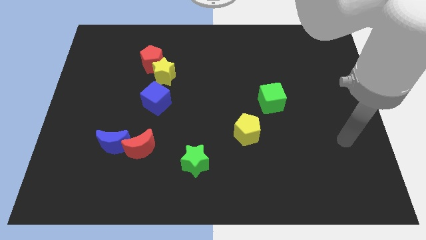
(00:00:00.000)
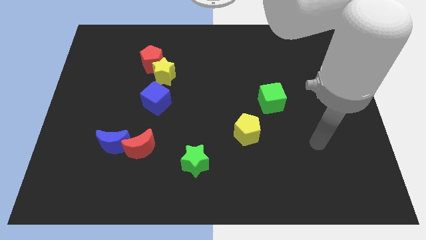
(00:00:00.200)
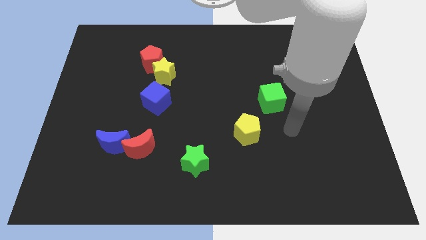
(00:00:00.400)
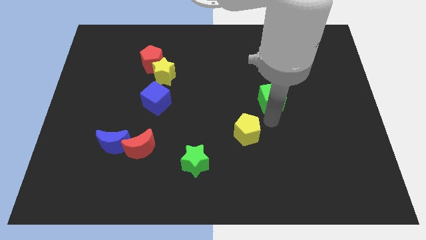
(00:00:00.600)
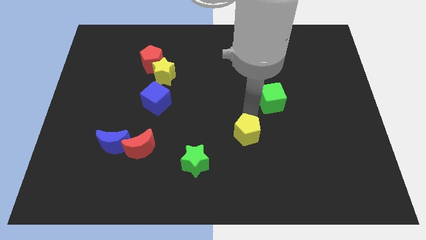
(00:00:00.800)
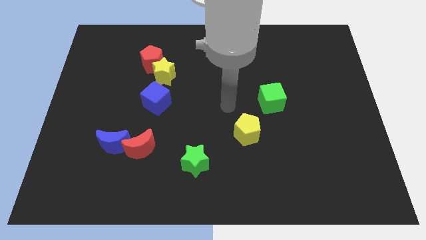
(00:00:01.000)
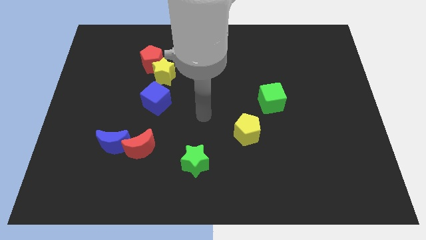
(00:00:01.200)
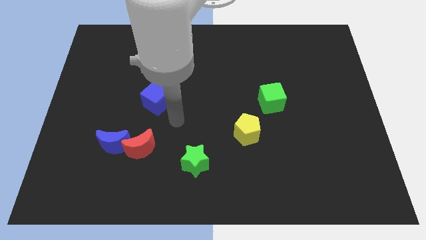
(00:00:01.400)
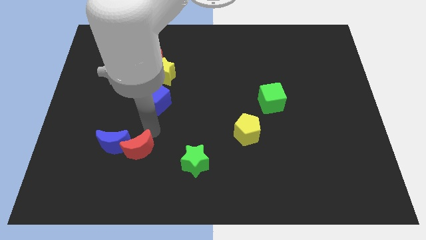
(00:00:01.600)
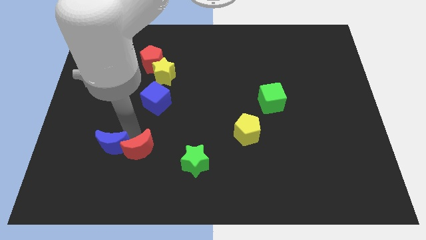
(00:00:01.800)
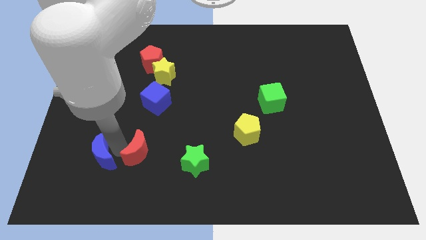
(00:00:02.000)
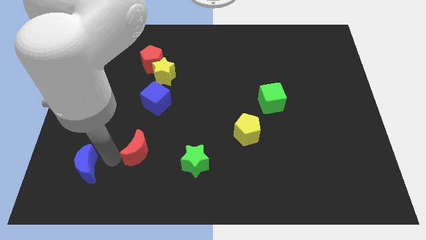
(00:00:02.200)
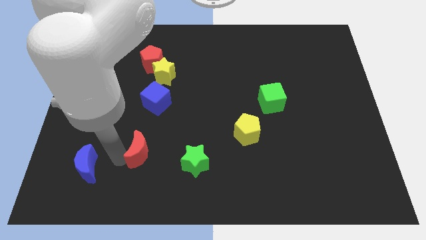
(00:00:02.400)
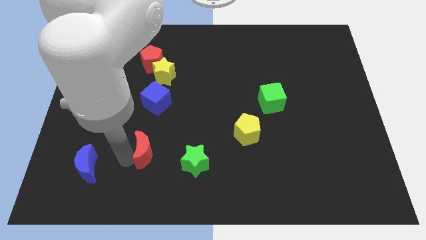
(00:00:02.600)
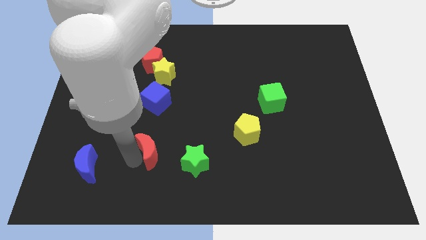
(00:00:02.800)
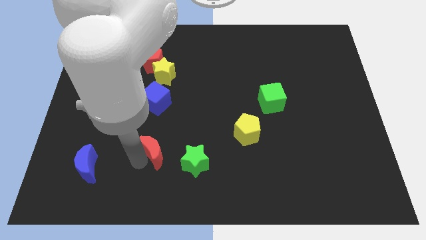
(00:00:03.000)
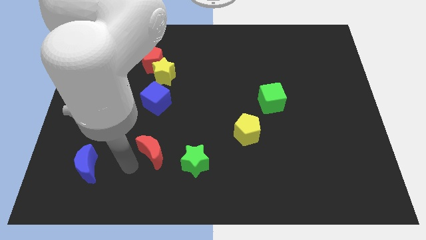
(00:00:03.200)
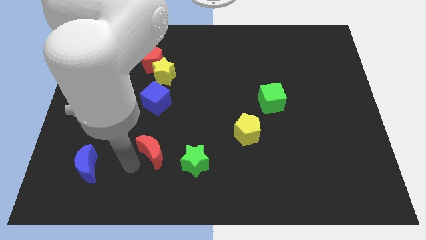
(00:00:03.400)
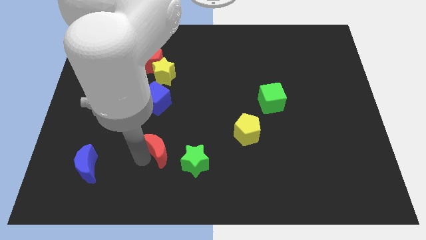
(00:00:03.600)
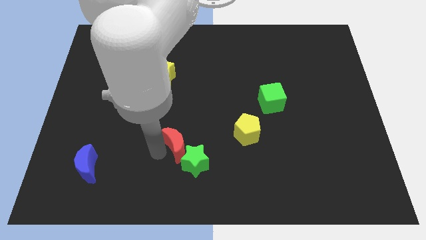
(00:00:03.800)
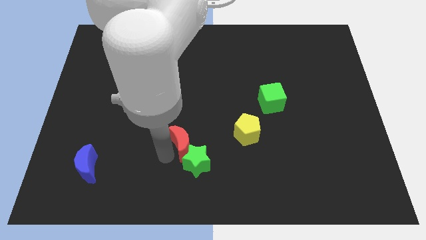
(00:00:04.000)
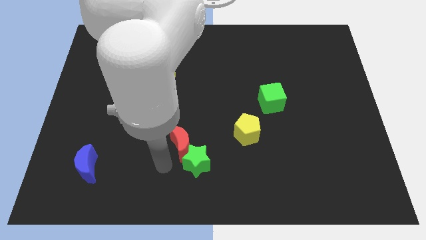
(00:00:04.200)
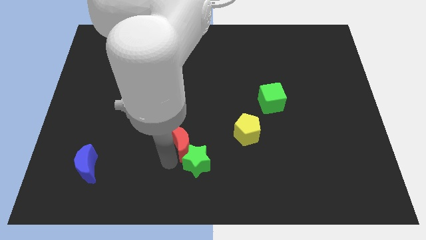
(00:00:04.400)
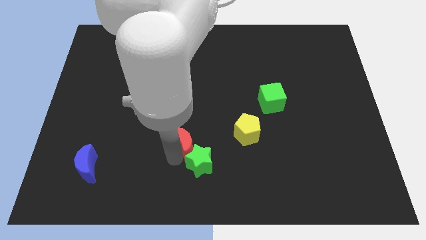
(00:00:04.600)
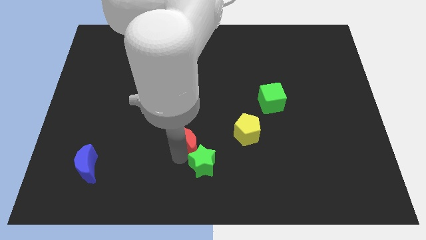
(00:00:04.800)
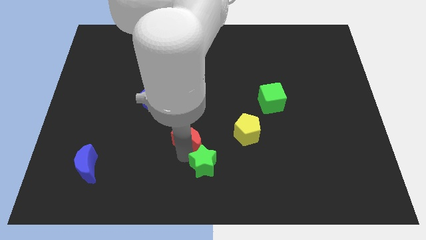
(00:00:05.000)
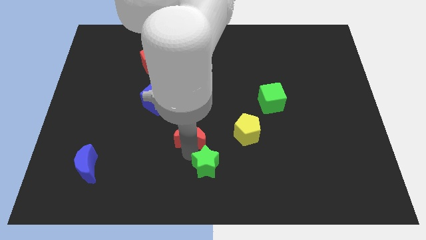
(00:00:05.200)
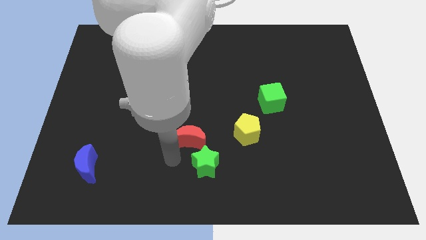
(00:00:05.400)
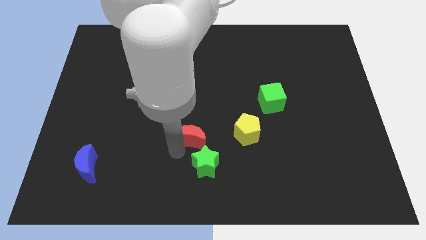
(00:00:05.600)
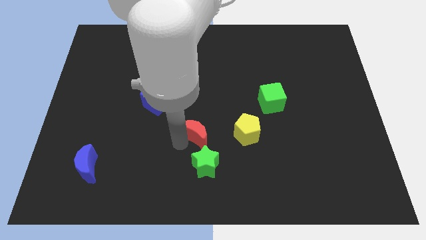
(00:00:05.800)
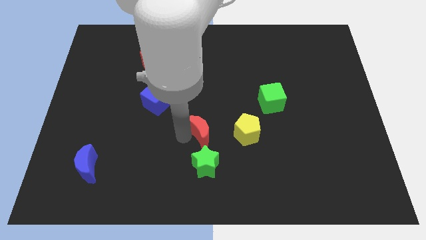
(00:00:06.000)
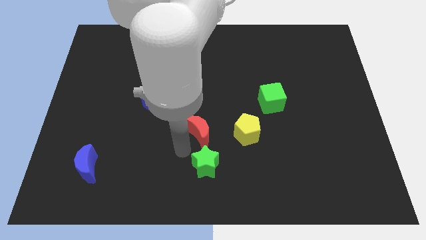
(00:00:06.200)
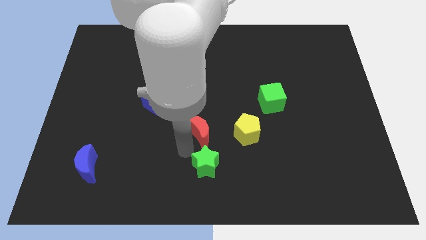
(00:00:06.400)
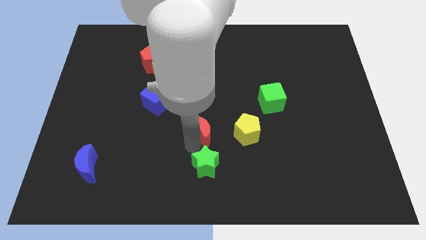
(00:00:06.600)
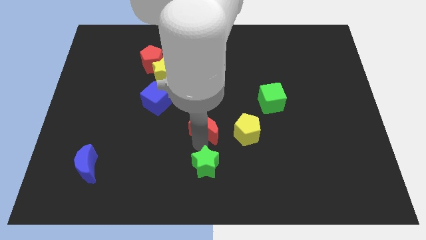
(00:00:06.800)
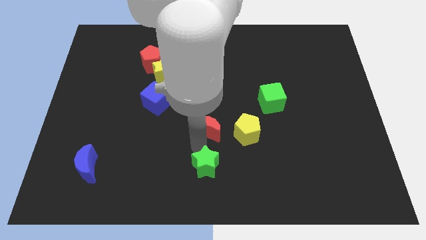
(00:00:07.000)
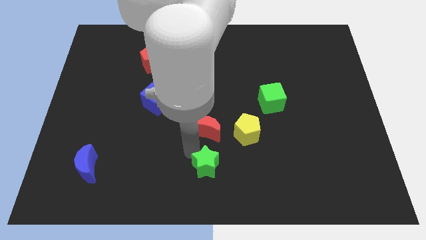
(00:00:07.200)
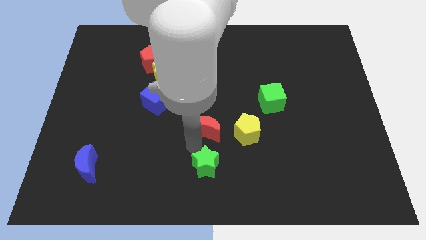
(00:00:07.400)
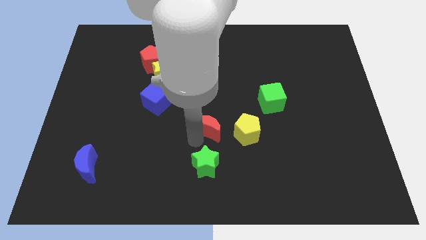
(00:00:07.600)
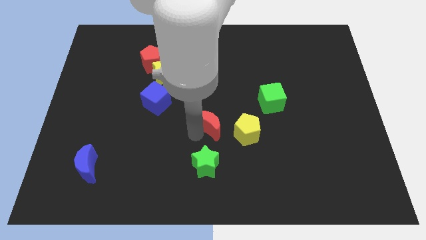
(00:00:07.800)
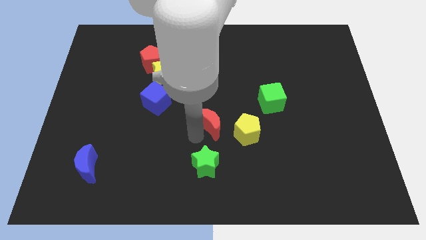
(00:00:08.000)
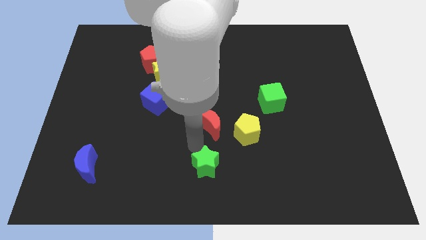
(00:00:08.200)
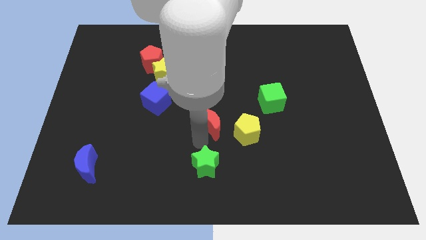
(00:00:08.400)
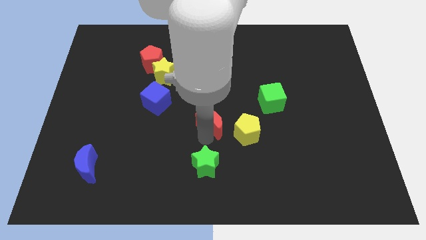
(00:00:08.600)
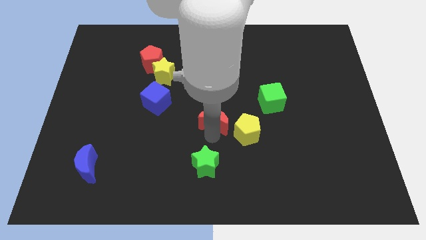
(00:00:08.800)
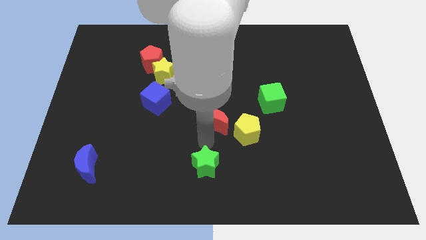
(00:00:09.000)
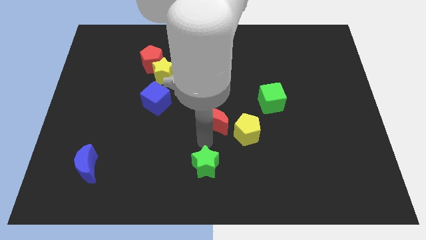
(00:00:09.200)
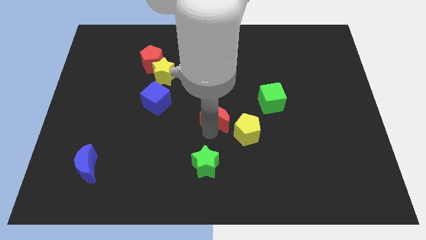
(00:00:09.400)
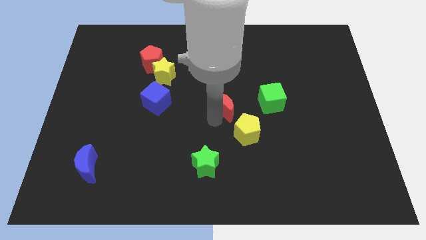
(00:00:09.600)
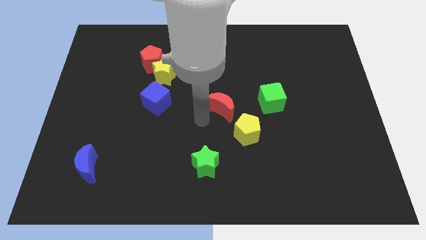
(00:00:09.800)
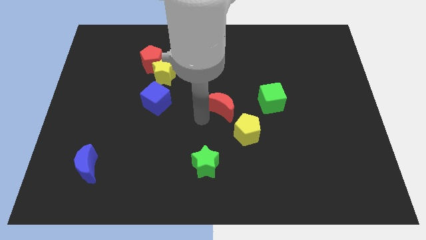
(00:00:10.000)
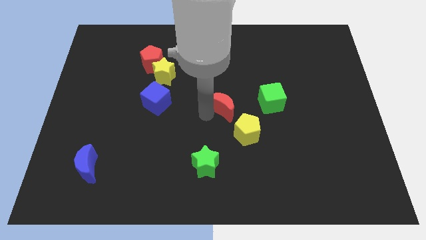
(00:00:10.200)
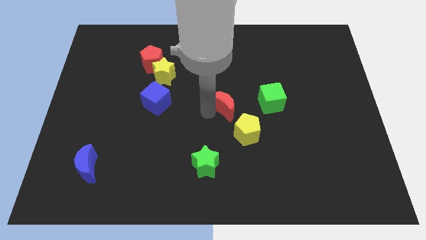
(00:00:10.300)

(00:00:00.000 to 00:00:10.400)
push the red moon to the top of the yellow pentagon

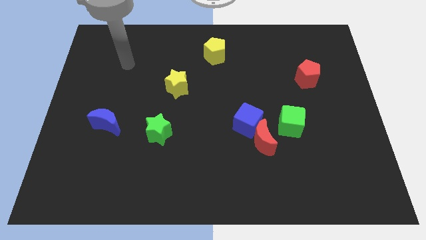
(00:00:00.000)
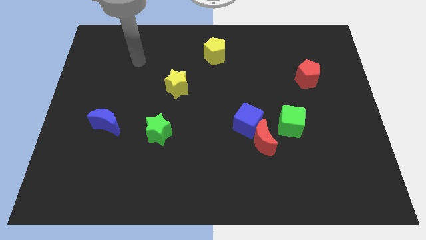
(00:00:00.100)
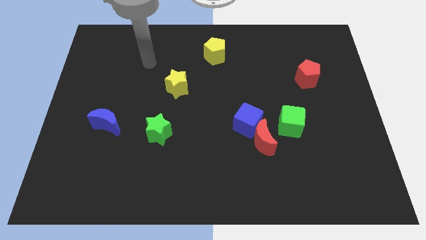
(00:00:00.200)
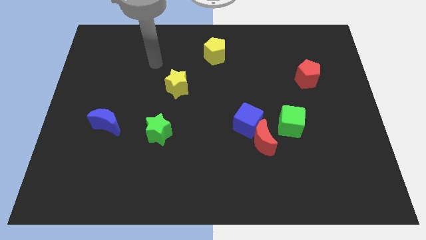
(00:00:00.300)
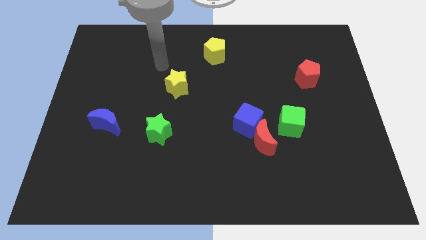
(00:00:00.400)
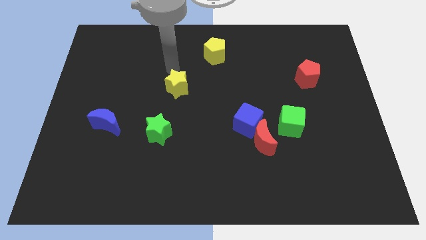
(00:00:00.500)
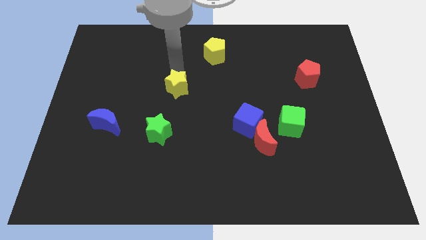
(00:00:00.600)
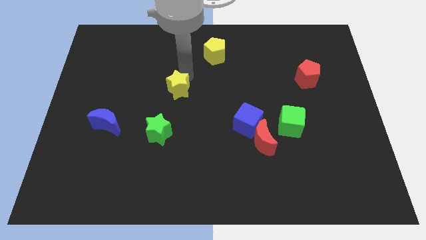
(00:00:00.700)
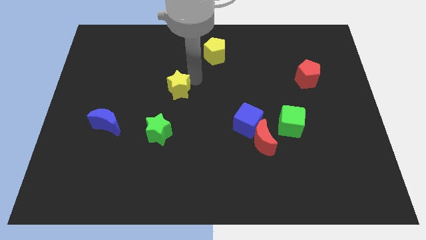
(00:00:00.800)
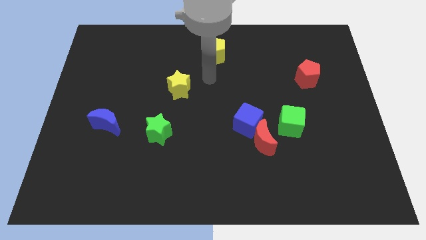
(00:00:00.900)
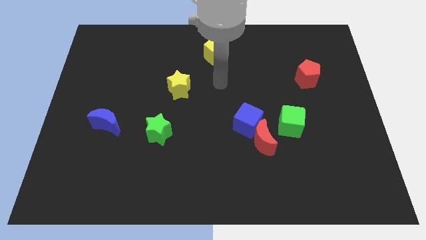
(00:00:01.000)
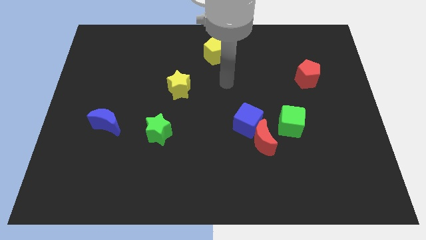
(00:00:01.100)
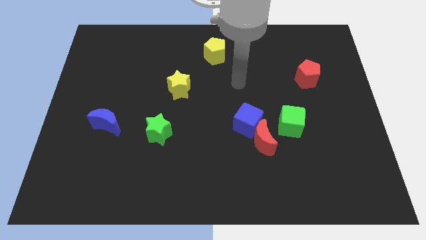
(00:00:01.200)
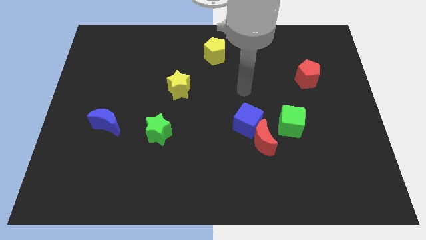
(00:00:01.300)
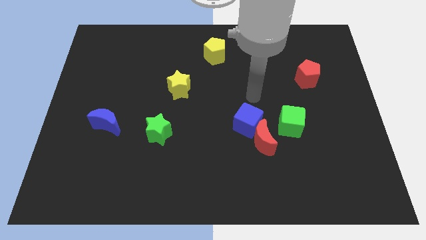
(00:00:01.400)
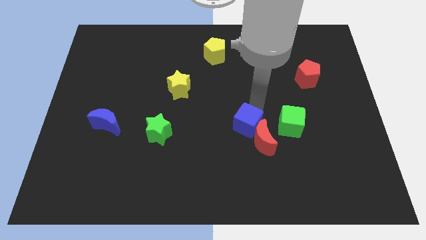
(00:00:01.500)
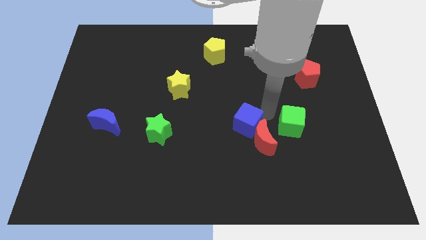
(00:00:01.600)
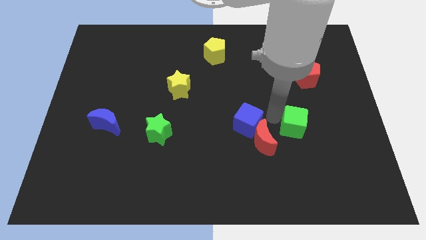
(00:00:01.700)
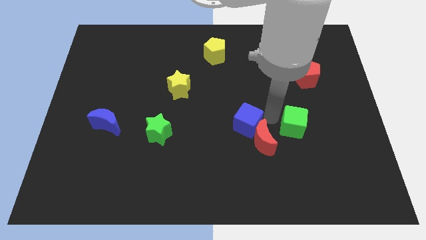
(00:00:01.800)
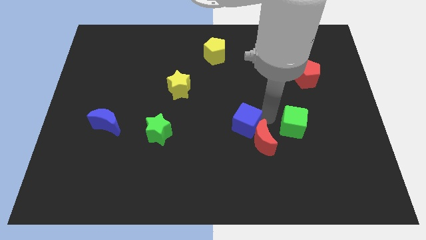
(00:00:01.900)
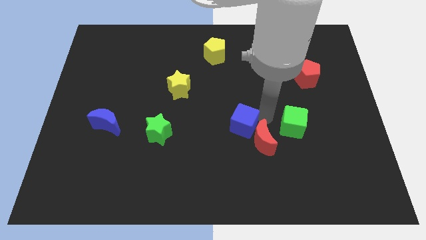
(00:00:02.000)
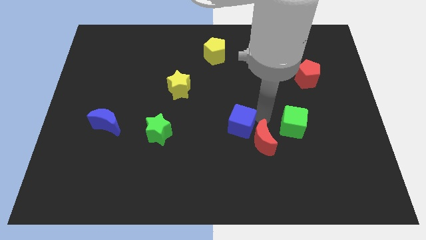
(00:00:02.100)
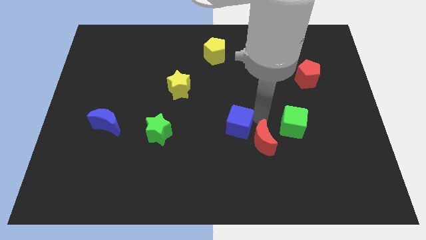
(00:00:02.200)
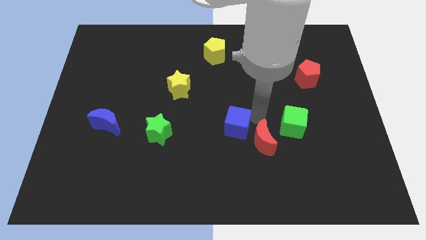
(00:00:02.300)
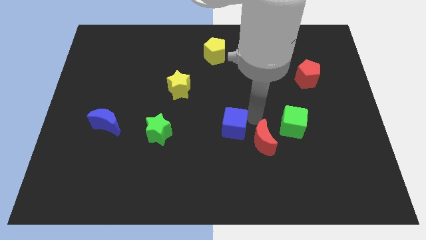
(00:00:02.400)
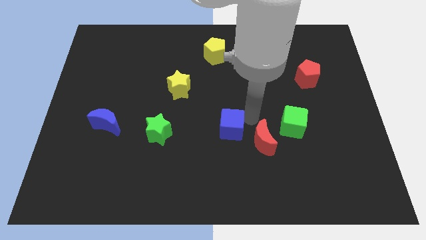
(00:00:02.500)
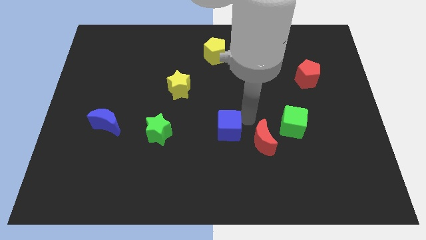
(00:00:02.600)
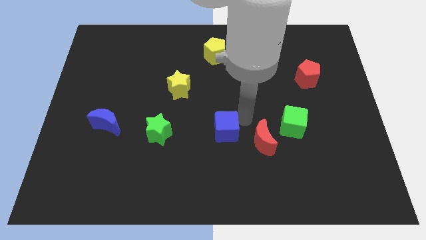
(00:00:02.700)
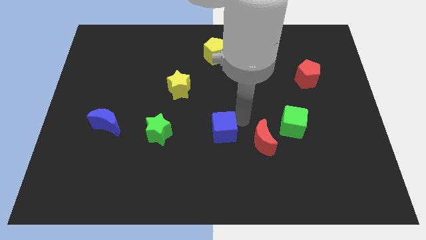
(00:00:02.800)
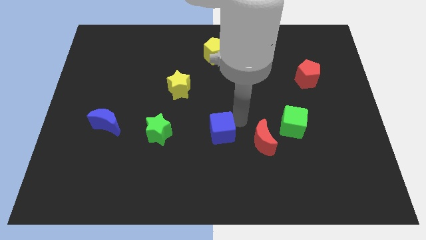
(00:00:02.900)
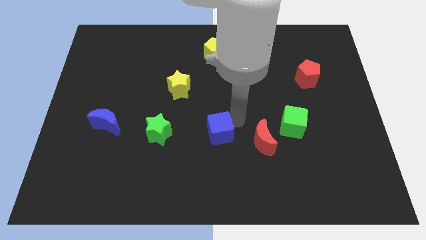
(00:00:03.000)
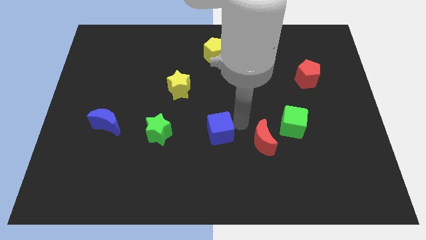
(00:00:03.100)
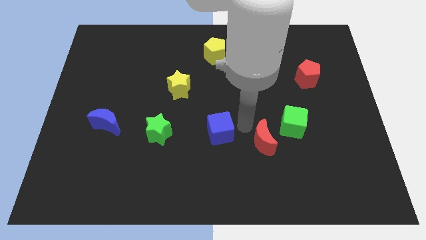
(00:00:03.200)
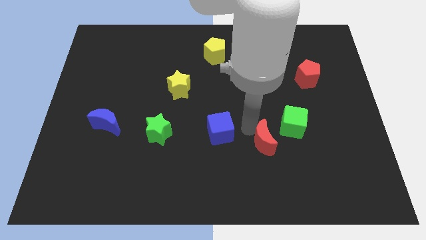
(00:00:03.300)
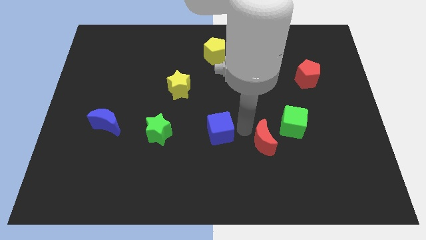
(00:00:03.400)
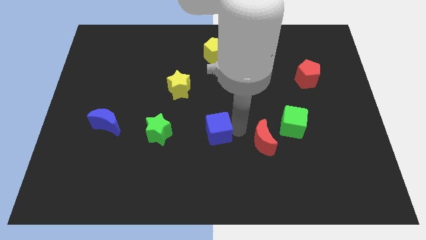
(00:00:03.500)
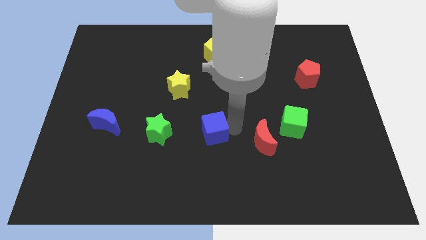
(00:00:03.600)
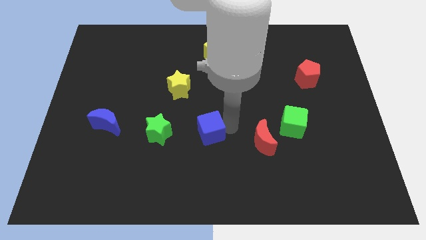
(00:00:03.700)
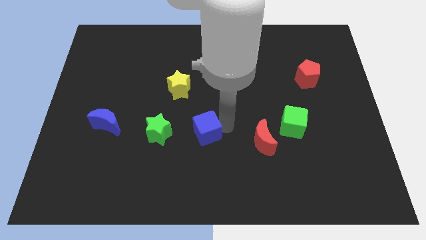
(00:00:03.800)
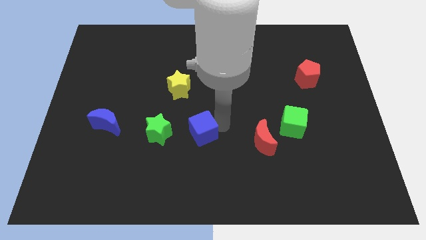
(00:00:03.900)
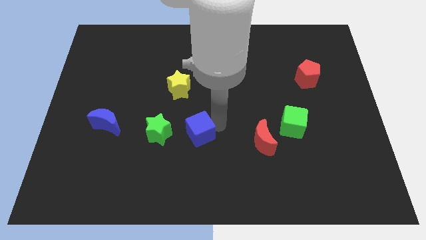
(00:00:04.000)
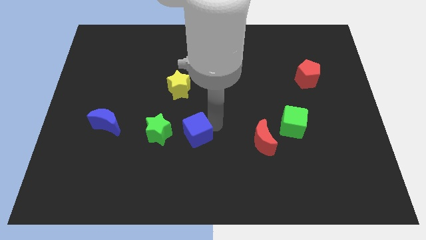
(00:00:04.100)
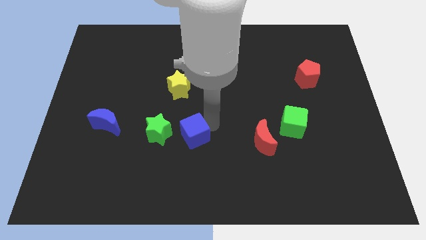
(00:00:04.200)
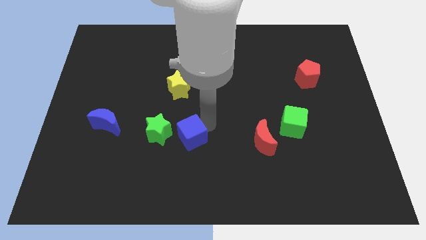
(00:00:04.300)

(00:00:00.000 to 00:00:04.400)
push the blue cube to the bottom right of the green star
